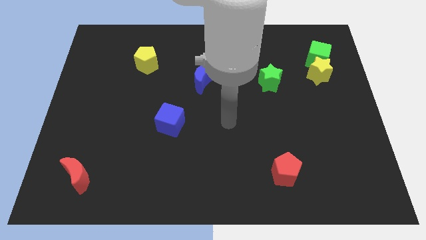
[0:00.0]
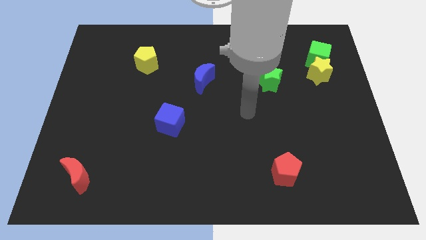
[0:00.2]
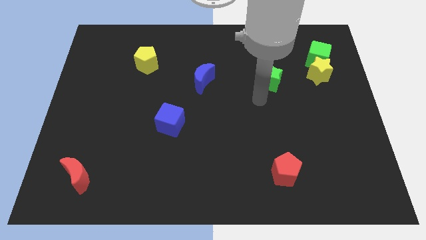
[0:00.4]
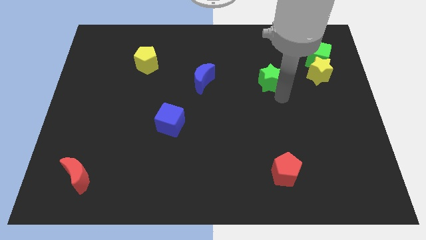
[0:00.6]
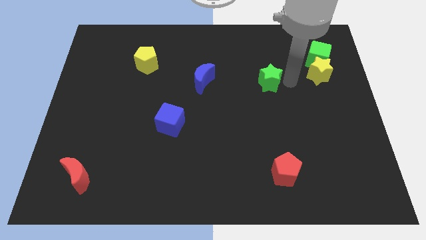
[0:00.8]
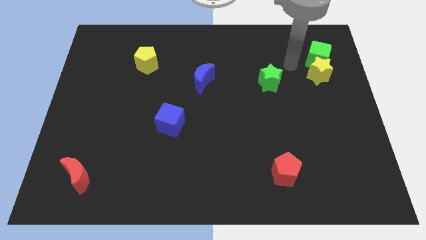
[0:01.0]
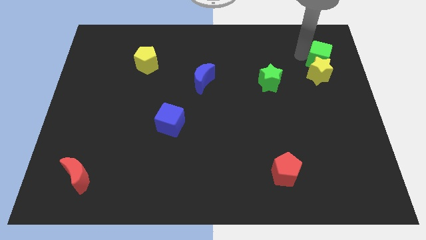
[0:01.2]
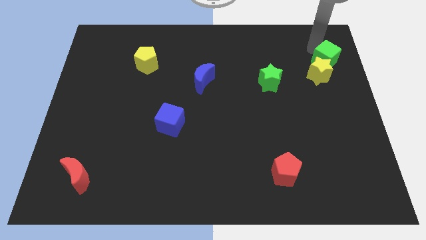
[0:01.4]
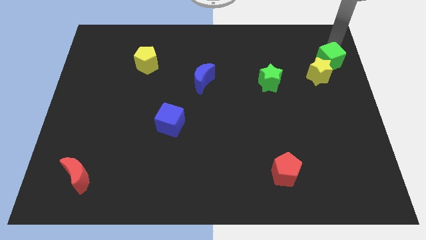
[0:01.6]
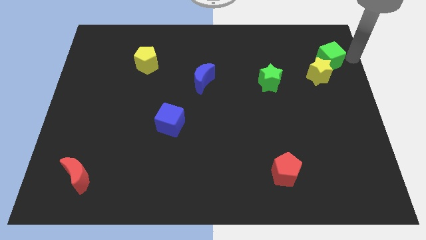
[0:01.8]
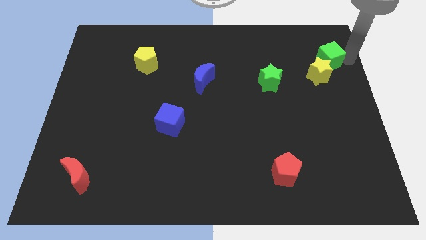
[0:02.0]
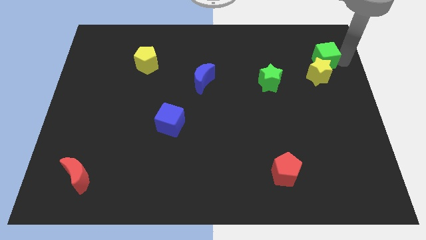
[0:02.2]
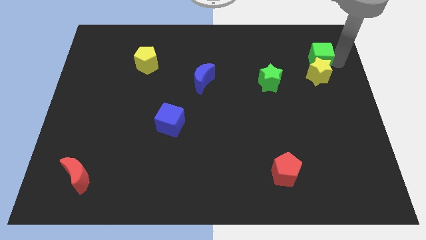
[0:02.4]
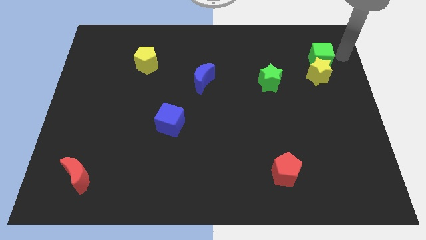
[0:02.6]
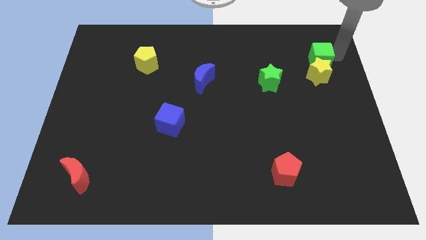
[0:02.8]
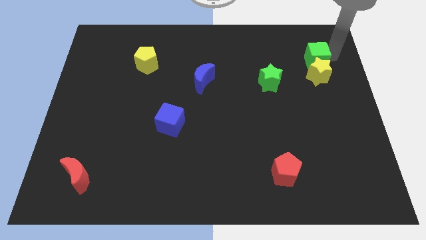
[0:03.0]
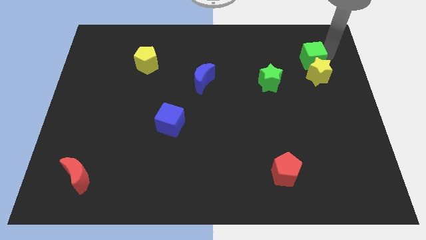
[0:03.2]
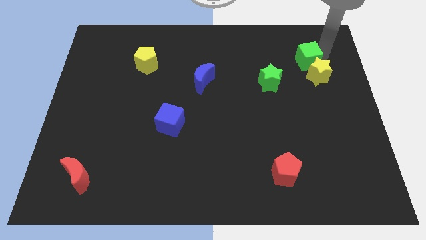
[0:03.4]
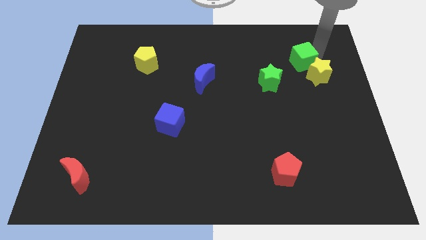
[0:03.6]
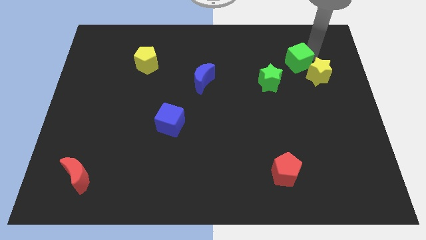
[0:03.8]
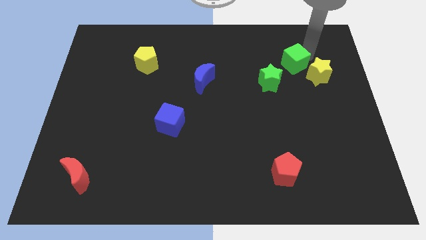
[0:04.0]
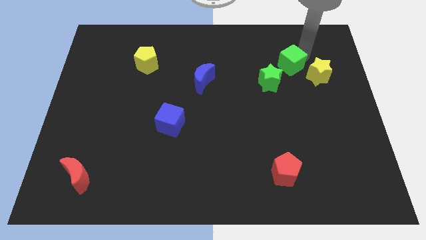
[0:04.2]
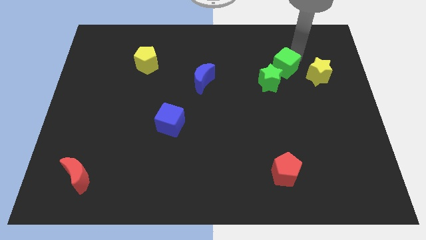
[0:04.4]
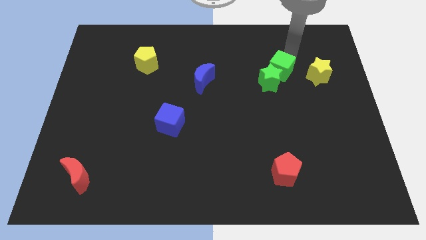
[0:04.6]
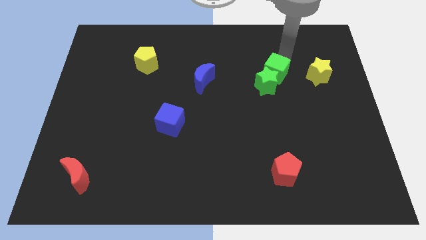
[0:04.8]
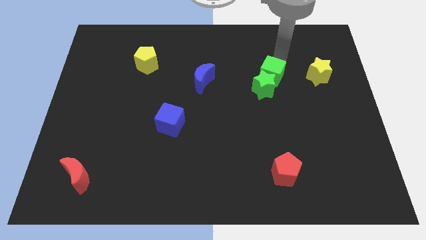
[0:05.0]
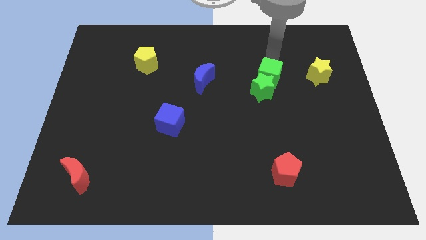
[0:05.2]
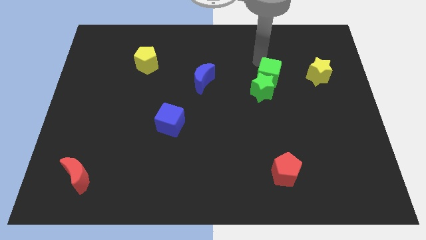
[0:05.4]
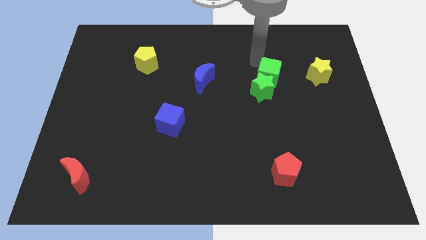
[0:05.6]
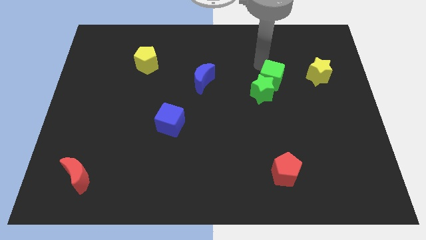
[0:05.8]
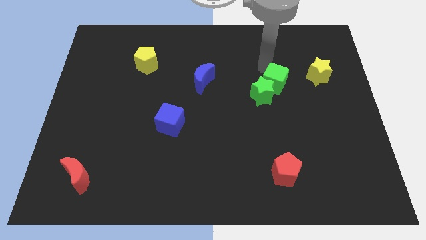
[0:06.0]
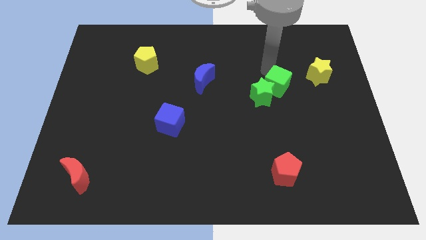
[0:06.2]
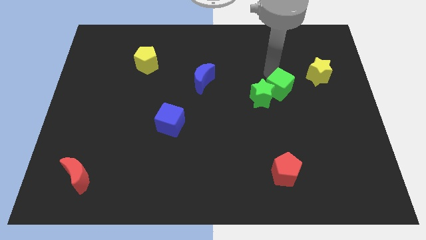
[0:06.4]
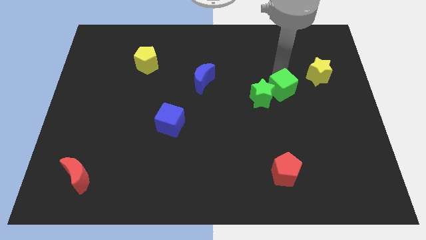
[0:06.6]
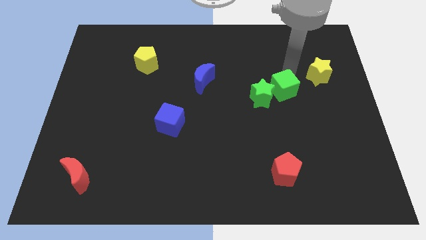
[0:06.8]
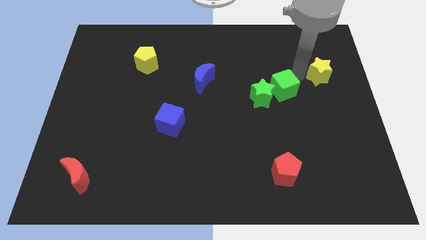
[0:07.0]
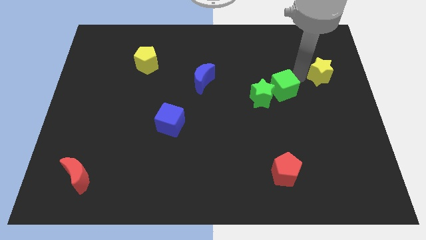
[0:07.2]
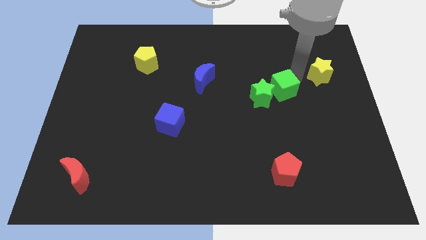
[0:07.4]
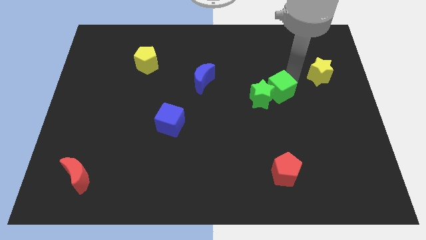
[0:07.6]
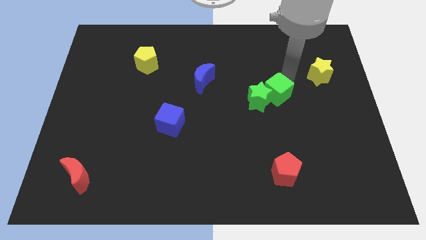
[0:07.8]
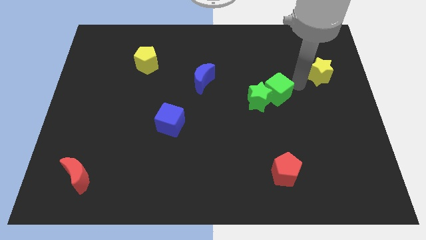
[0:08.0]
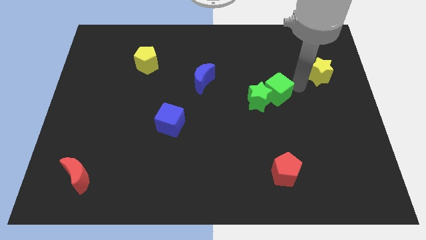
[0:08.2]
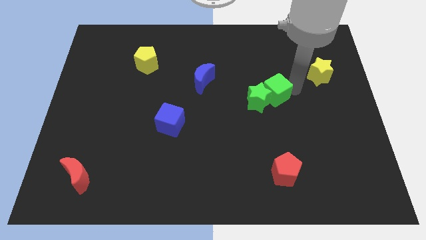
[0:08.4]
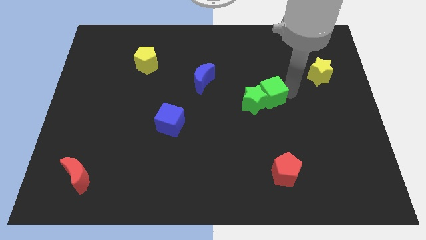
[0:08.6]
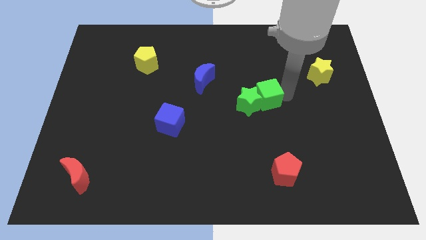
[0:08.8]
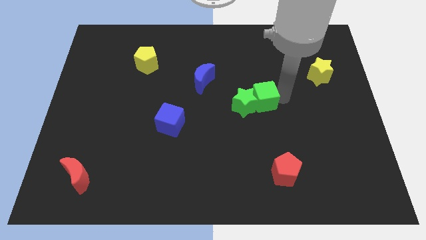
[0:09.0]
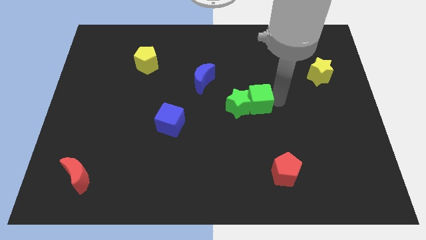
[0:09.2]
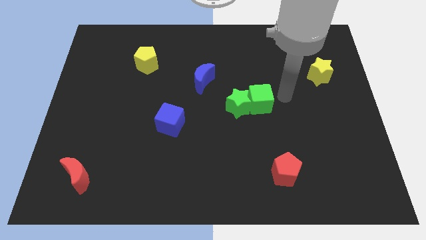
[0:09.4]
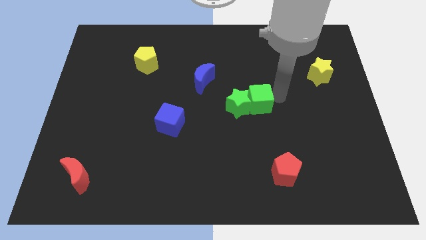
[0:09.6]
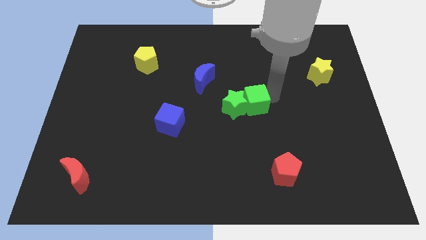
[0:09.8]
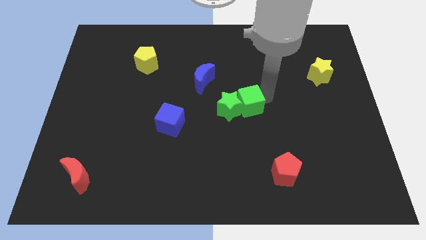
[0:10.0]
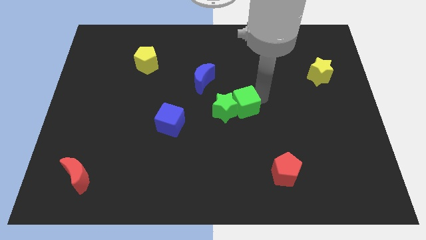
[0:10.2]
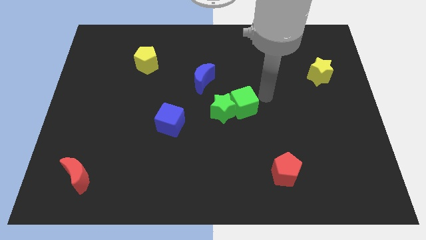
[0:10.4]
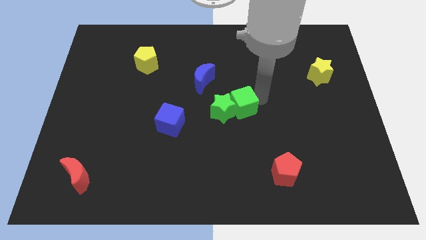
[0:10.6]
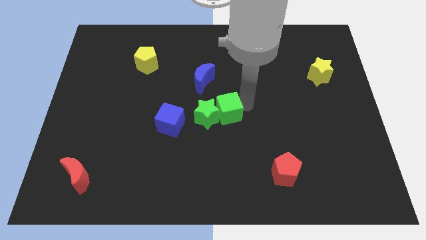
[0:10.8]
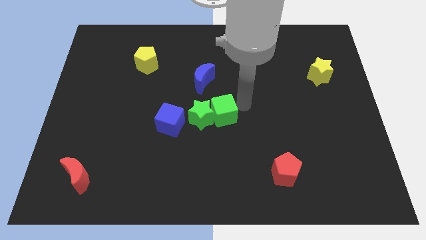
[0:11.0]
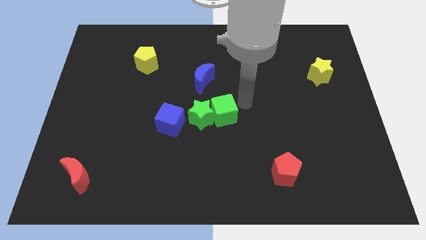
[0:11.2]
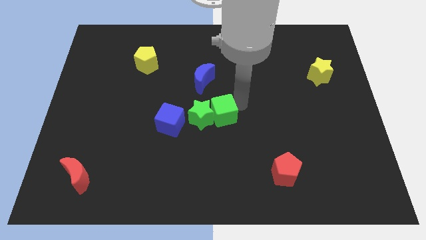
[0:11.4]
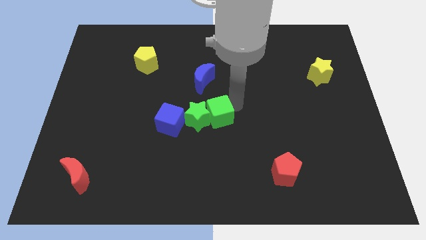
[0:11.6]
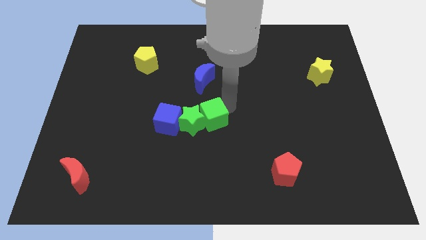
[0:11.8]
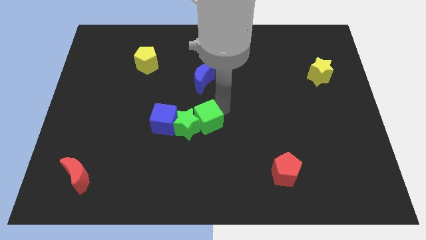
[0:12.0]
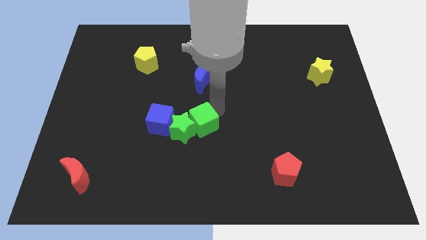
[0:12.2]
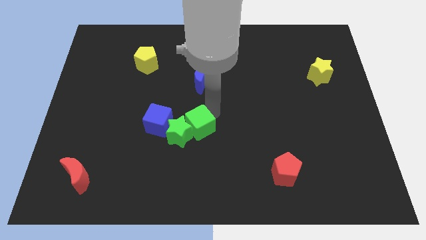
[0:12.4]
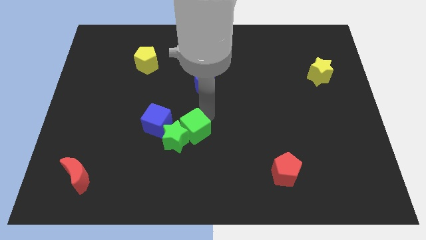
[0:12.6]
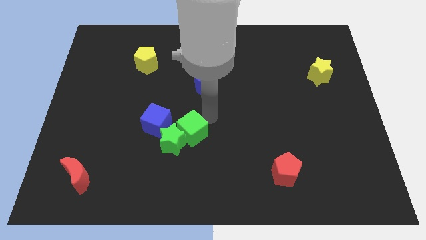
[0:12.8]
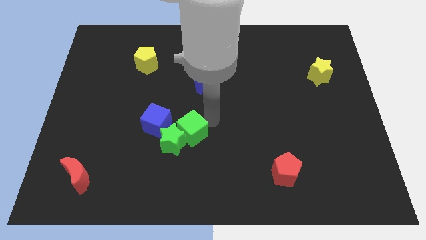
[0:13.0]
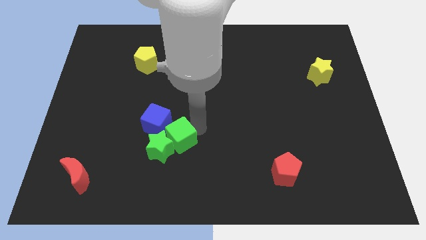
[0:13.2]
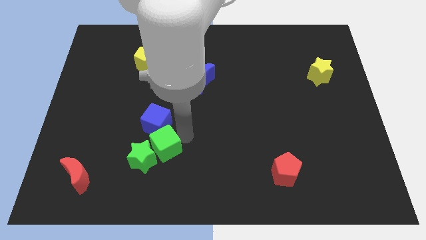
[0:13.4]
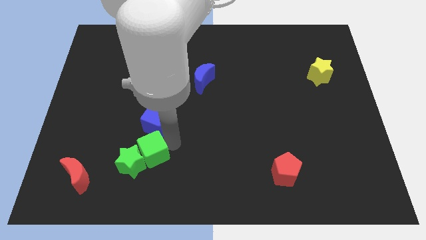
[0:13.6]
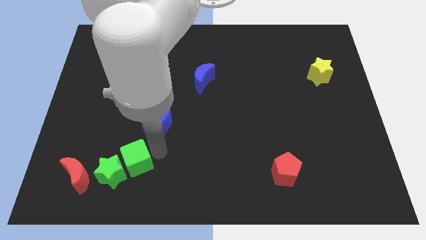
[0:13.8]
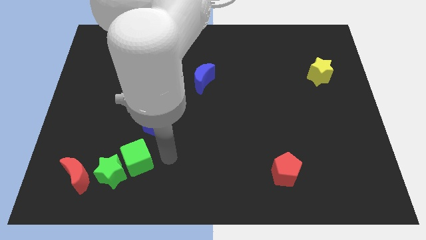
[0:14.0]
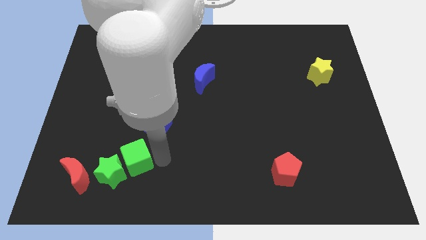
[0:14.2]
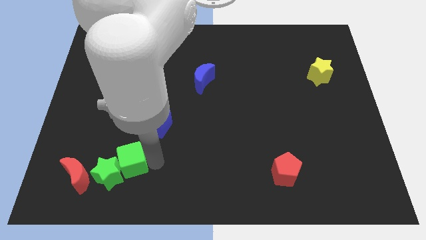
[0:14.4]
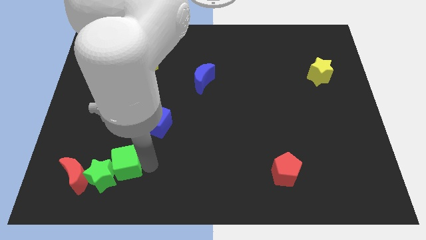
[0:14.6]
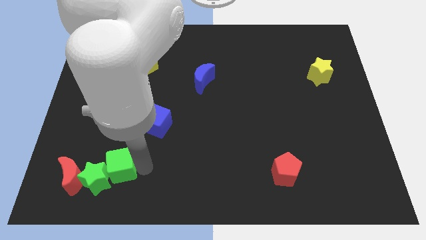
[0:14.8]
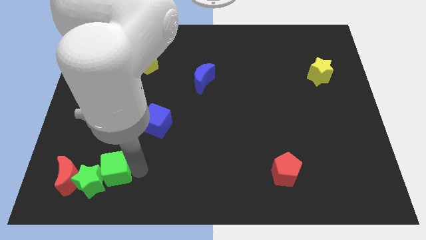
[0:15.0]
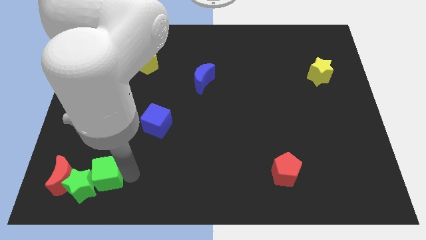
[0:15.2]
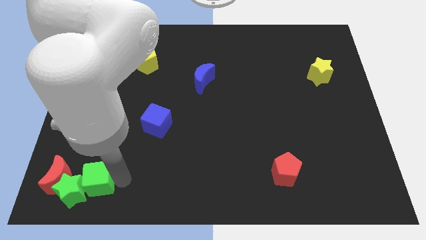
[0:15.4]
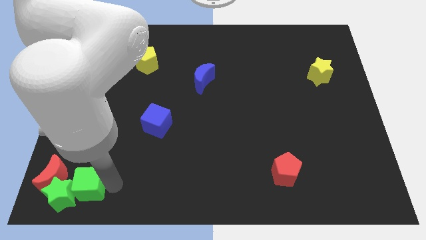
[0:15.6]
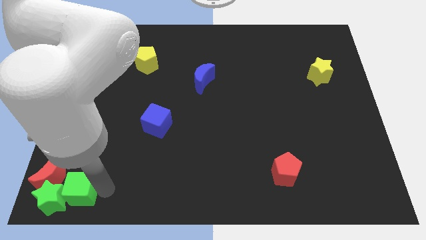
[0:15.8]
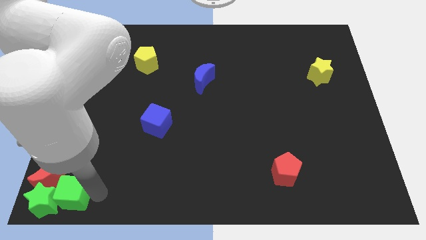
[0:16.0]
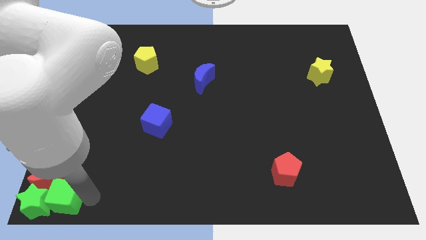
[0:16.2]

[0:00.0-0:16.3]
push the green cube close to the red moon
